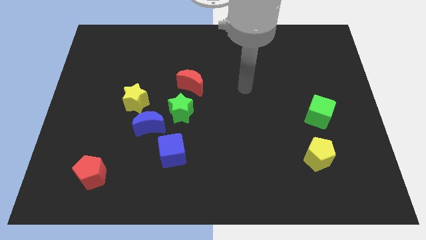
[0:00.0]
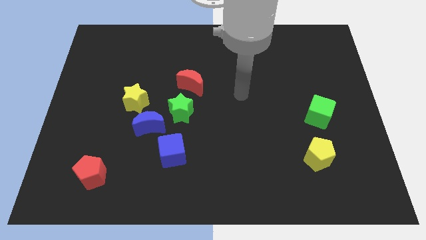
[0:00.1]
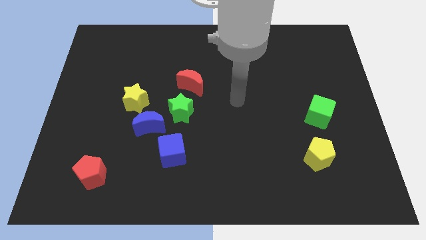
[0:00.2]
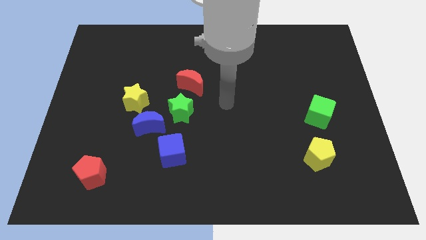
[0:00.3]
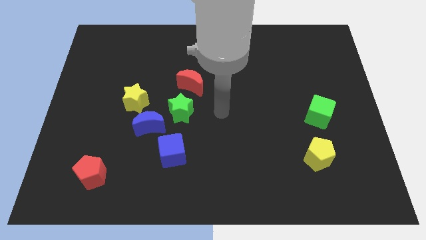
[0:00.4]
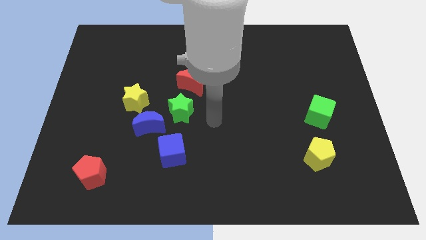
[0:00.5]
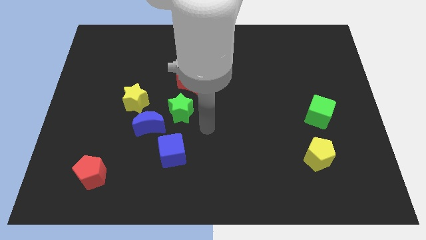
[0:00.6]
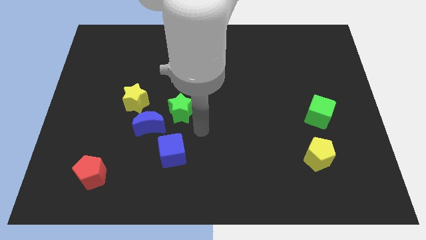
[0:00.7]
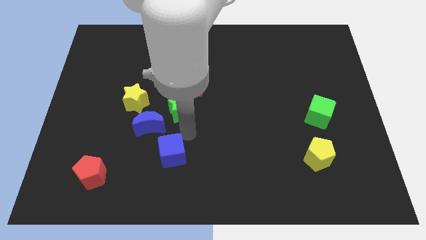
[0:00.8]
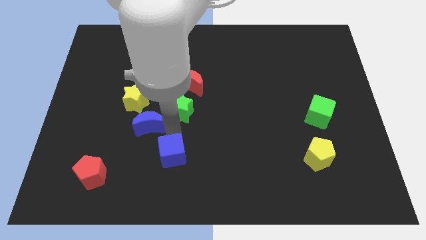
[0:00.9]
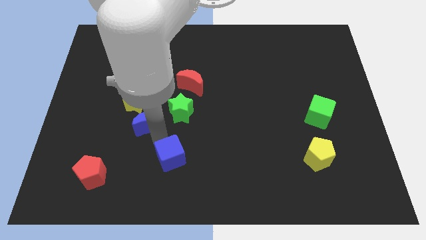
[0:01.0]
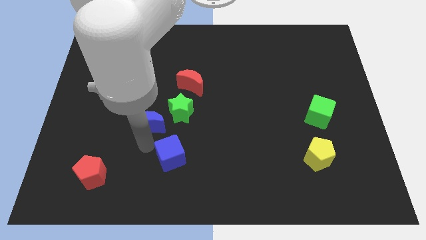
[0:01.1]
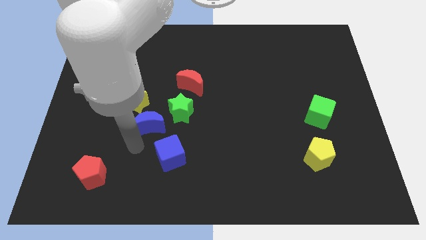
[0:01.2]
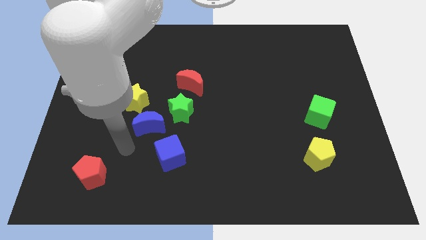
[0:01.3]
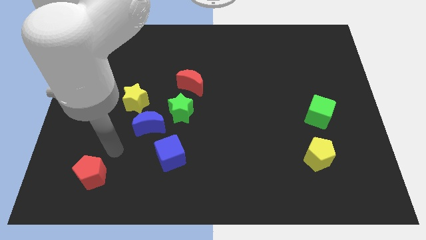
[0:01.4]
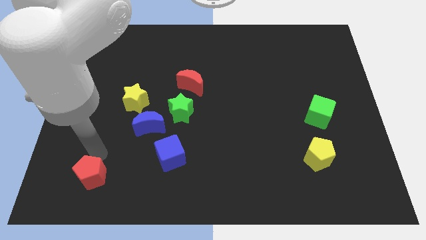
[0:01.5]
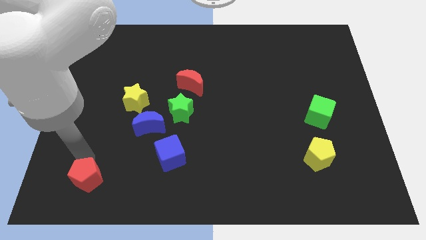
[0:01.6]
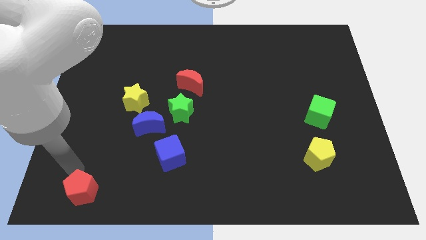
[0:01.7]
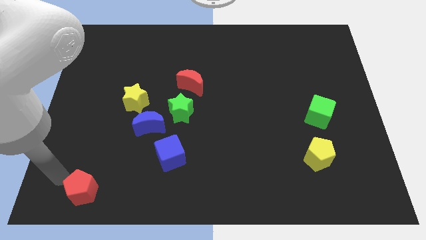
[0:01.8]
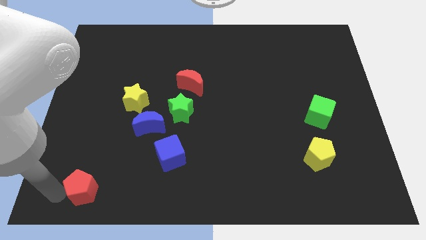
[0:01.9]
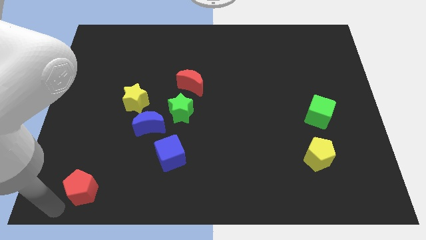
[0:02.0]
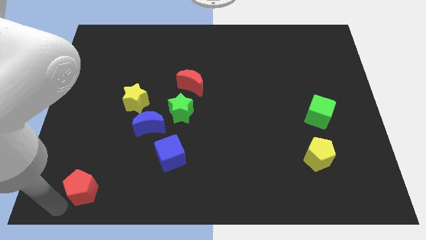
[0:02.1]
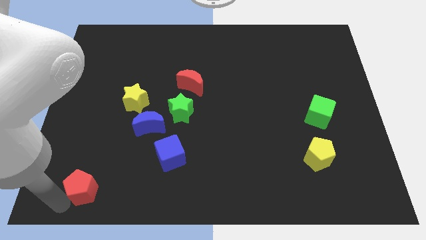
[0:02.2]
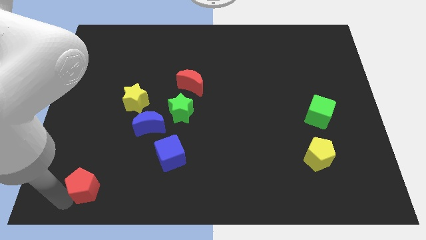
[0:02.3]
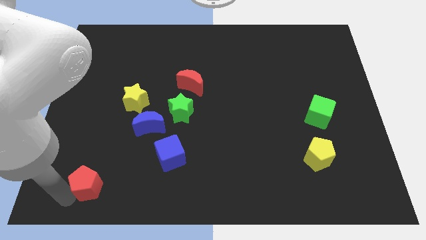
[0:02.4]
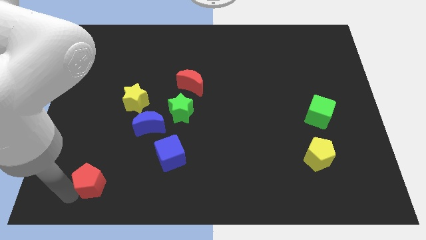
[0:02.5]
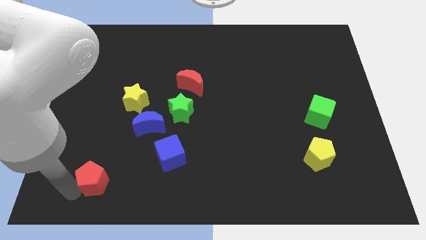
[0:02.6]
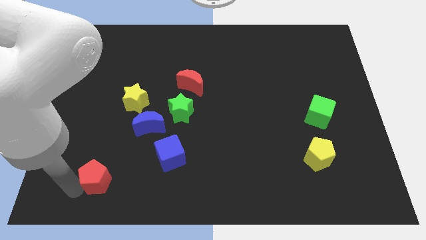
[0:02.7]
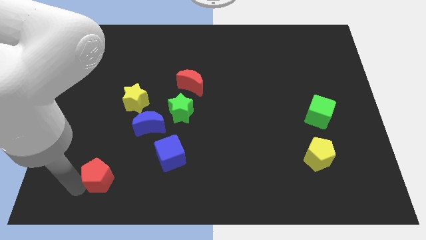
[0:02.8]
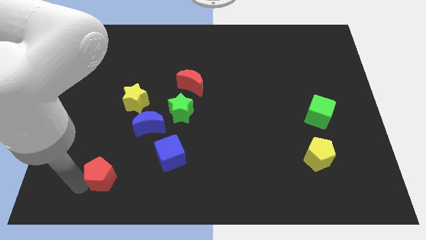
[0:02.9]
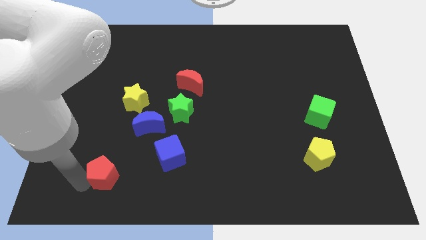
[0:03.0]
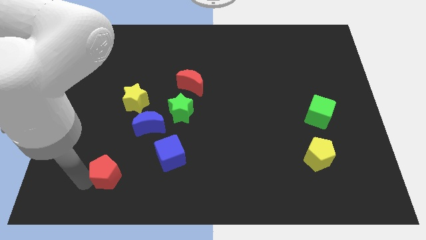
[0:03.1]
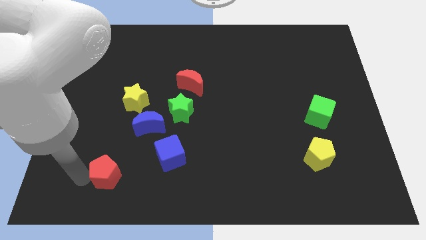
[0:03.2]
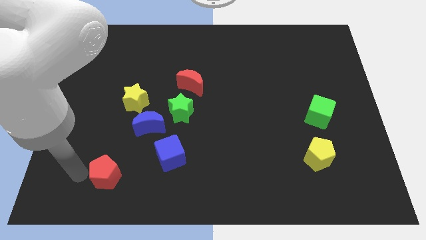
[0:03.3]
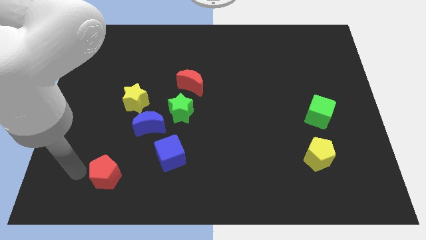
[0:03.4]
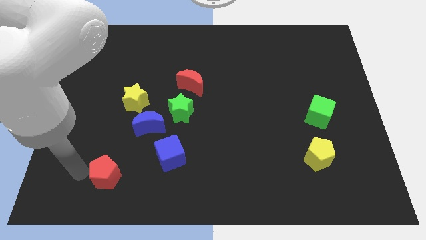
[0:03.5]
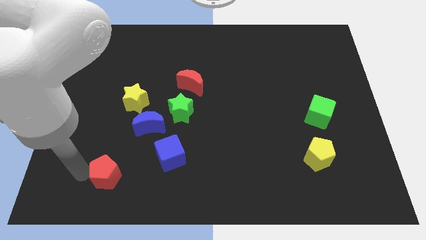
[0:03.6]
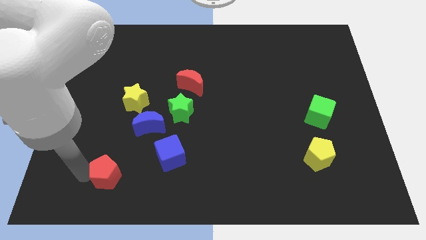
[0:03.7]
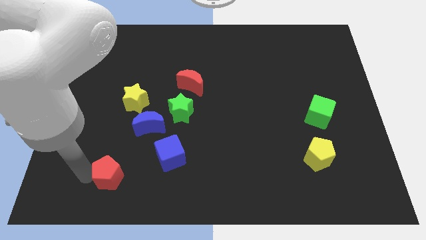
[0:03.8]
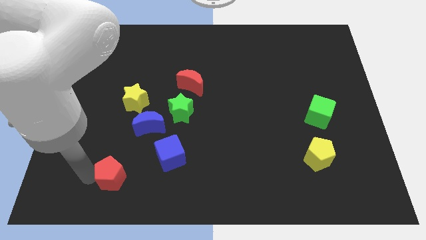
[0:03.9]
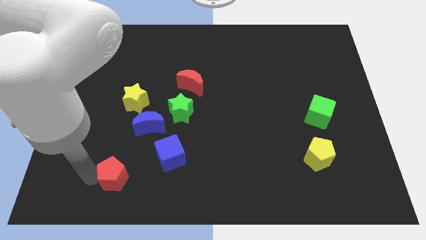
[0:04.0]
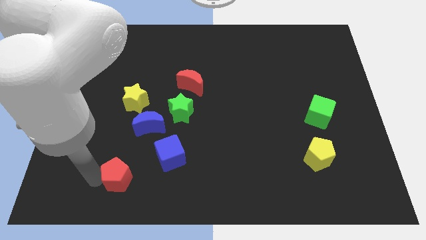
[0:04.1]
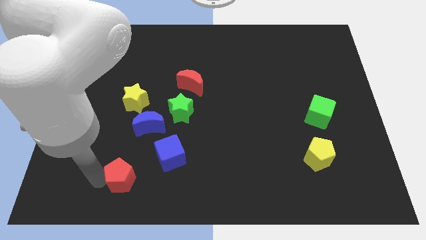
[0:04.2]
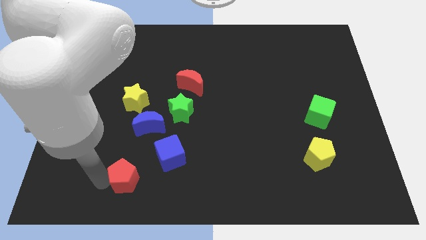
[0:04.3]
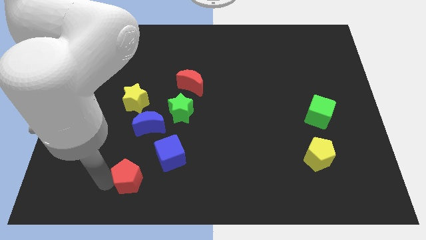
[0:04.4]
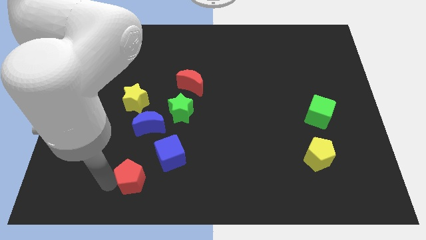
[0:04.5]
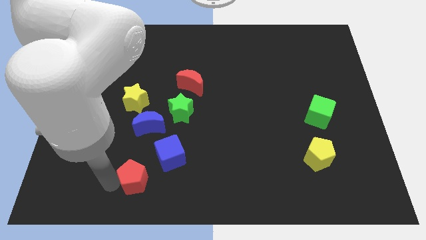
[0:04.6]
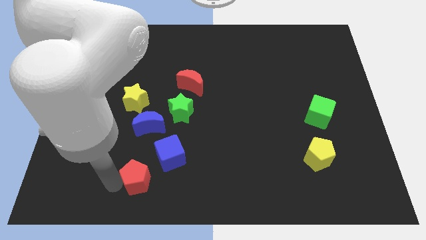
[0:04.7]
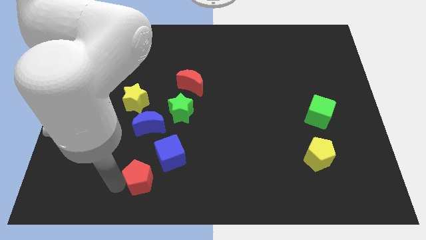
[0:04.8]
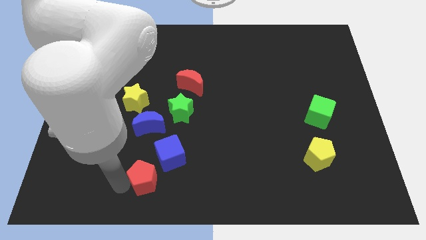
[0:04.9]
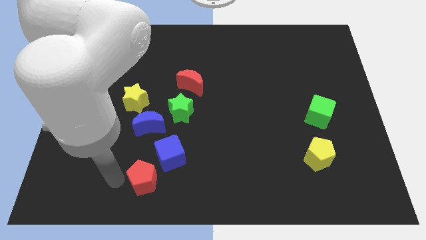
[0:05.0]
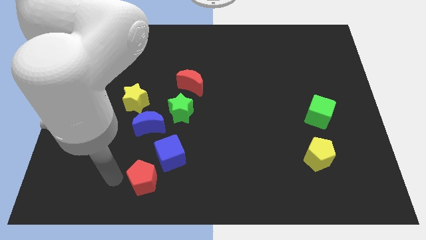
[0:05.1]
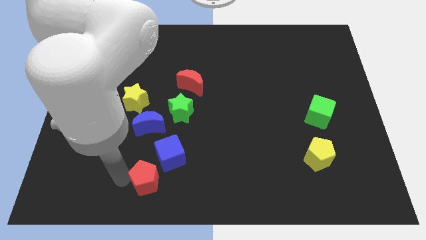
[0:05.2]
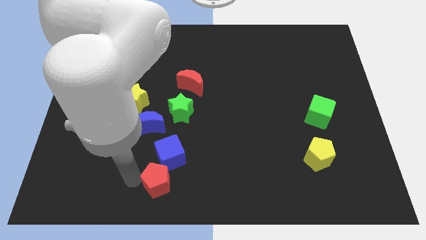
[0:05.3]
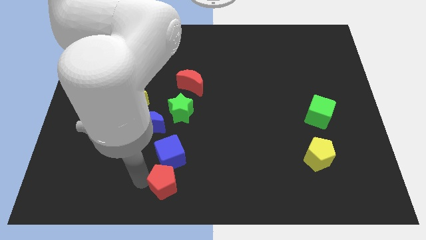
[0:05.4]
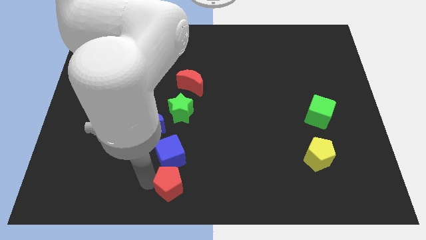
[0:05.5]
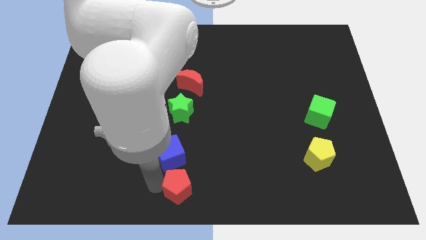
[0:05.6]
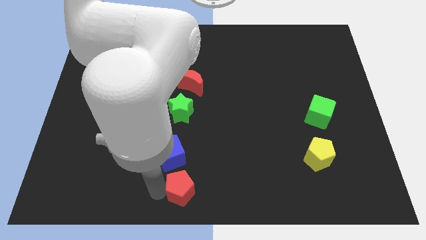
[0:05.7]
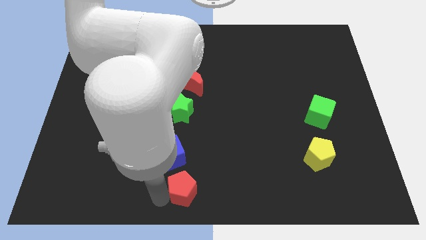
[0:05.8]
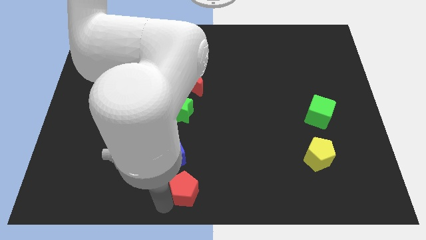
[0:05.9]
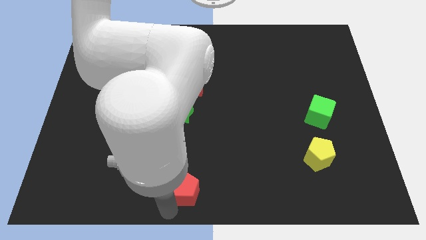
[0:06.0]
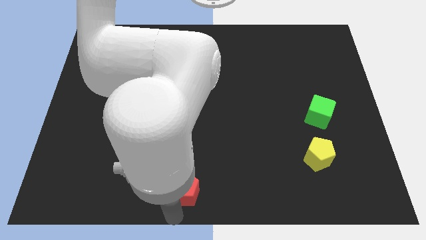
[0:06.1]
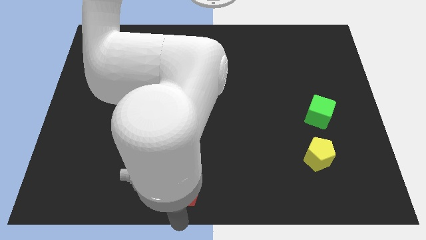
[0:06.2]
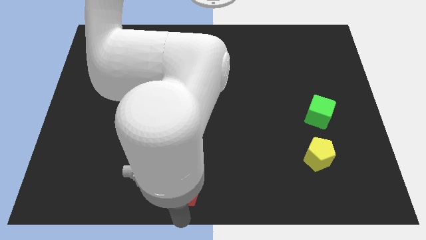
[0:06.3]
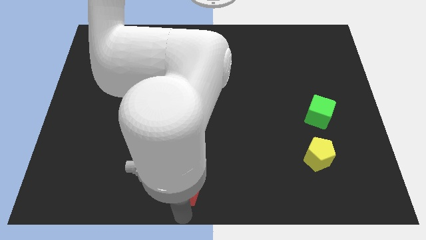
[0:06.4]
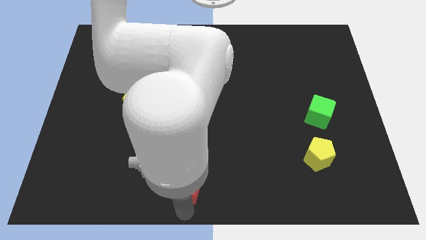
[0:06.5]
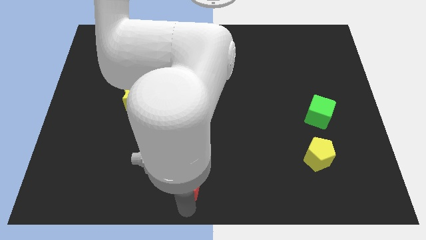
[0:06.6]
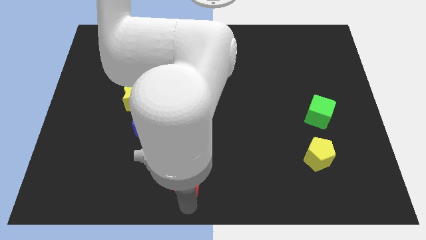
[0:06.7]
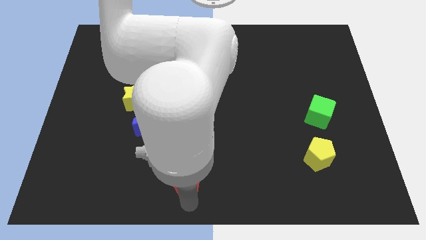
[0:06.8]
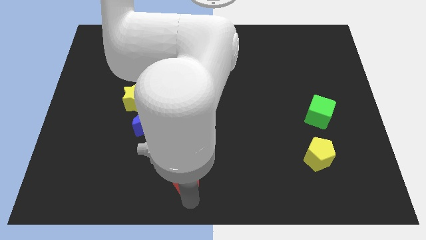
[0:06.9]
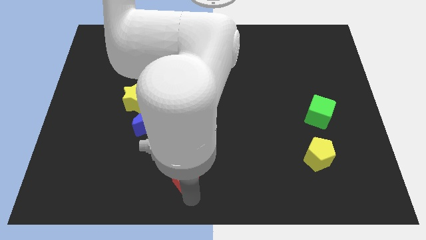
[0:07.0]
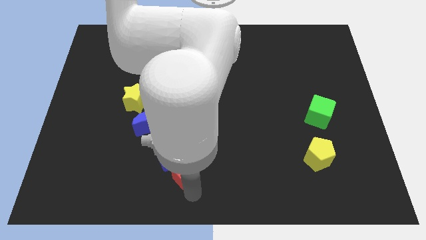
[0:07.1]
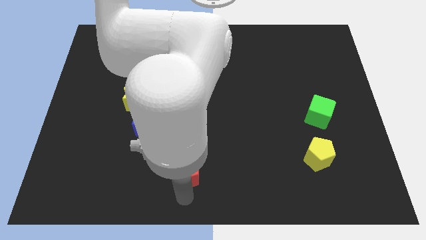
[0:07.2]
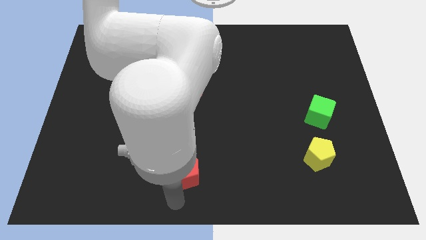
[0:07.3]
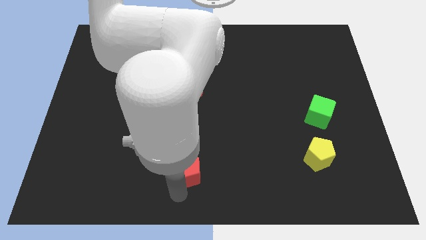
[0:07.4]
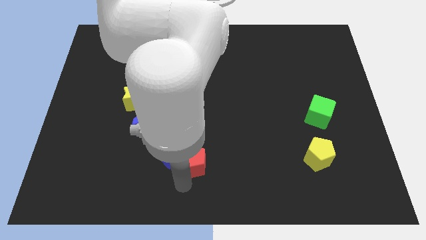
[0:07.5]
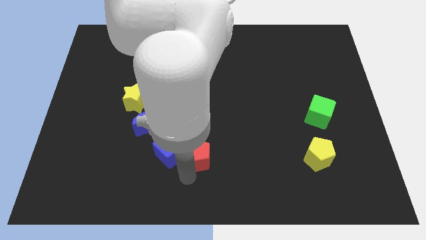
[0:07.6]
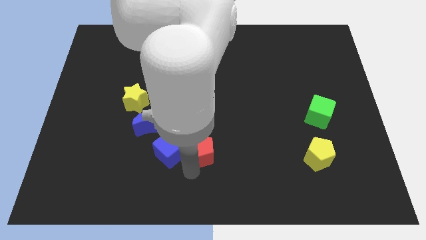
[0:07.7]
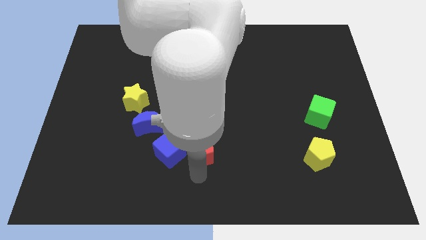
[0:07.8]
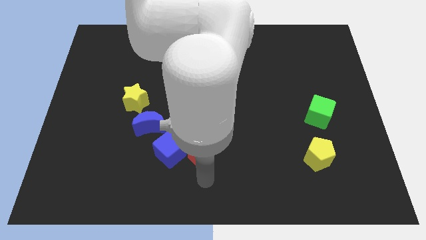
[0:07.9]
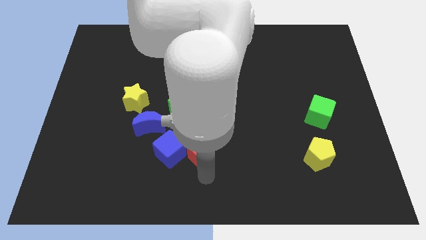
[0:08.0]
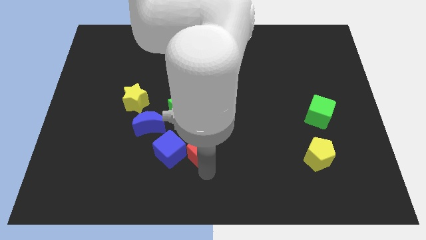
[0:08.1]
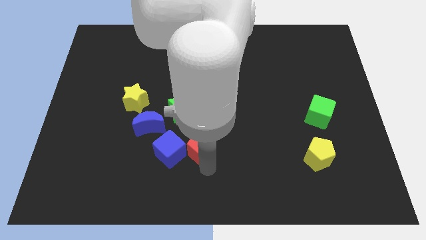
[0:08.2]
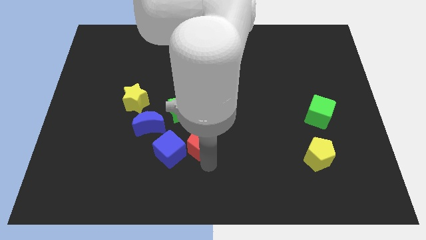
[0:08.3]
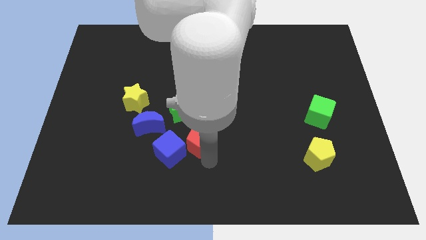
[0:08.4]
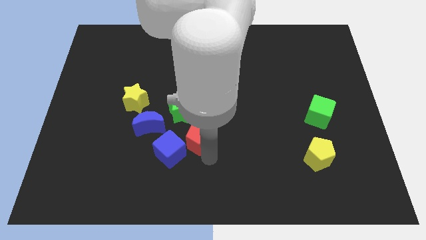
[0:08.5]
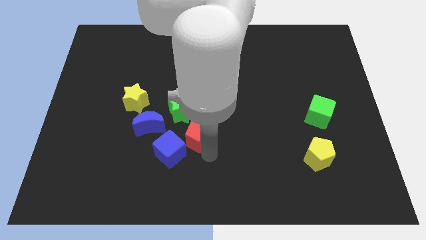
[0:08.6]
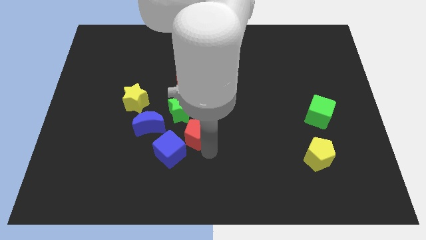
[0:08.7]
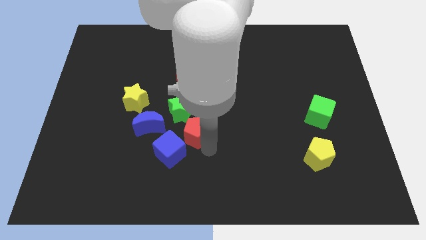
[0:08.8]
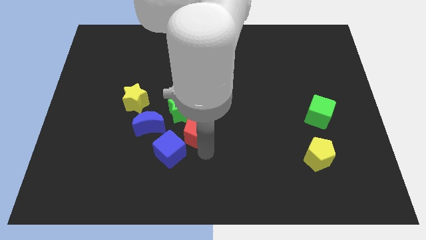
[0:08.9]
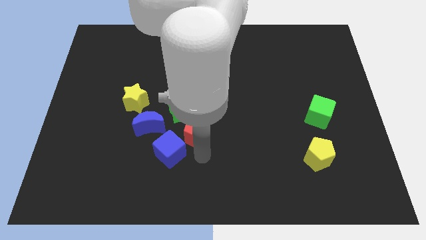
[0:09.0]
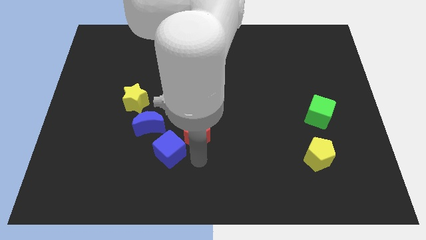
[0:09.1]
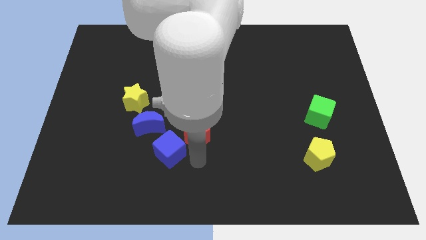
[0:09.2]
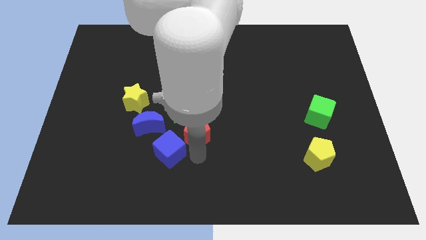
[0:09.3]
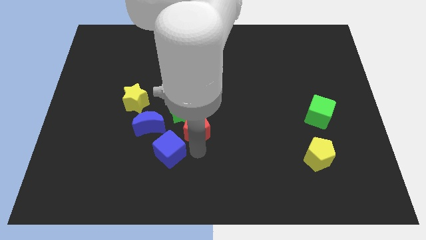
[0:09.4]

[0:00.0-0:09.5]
slide the red pentagon upwards and right
